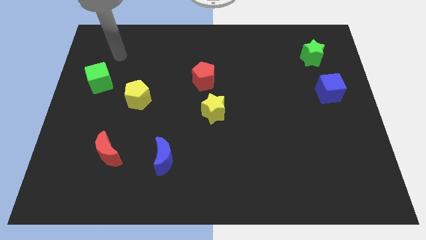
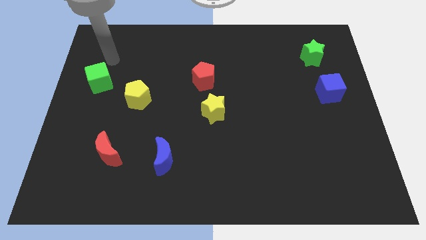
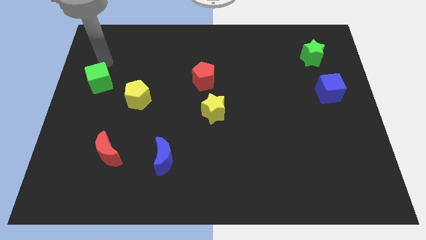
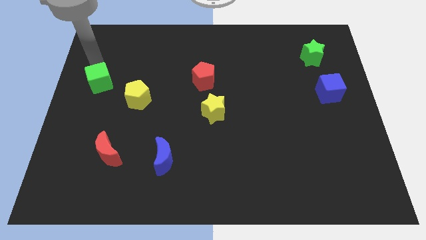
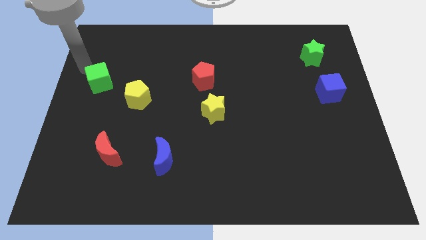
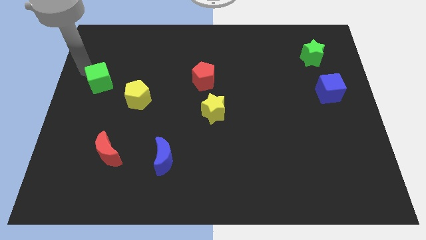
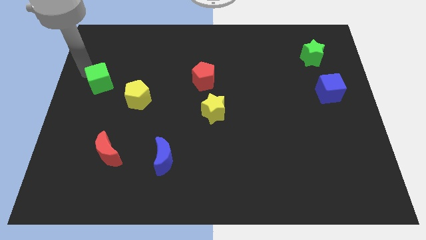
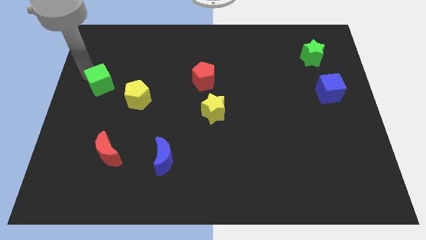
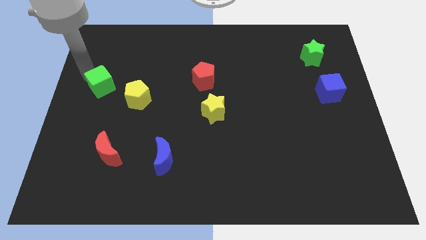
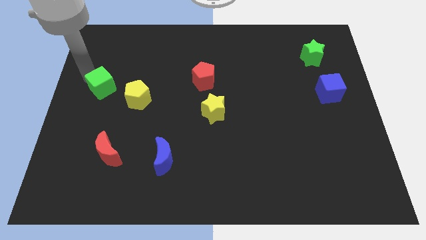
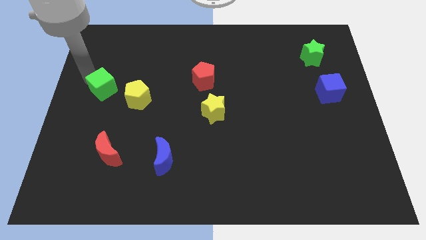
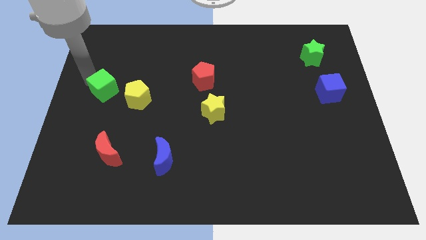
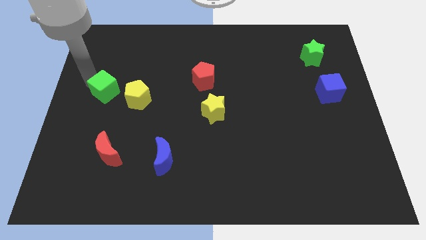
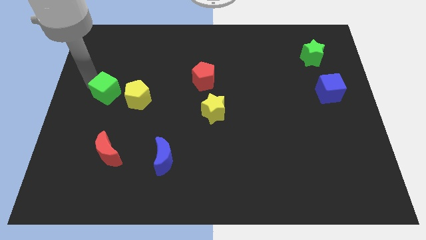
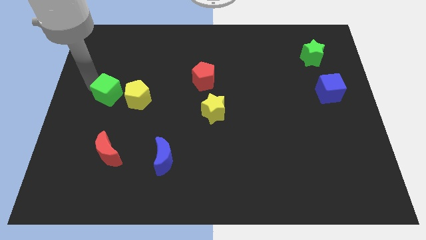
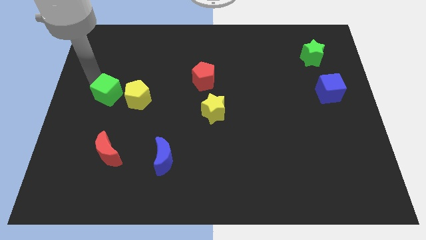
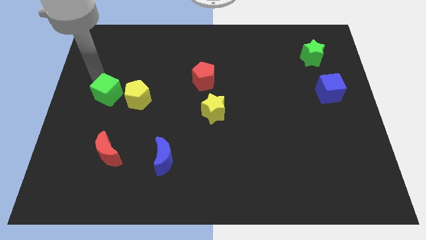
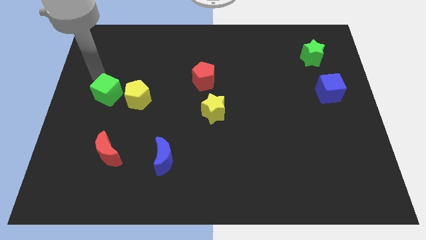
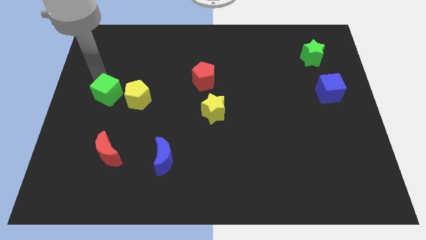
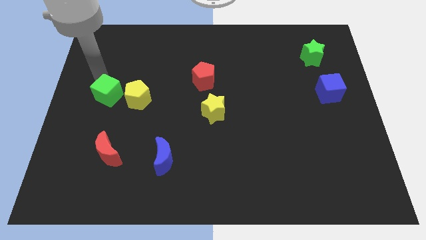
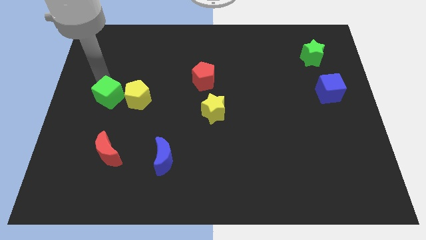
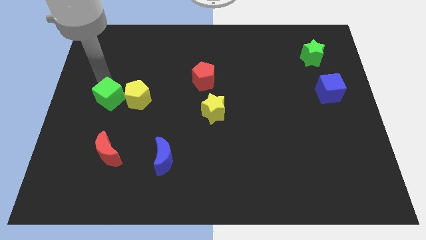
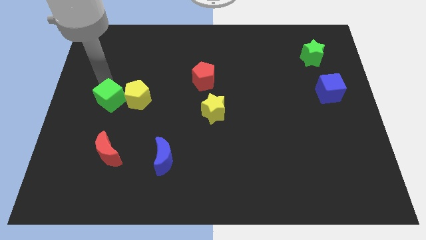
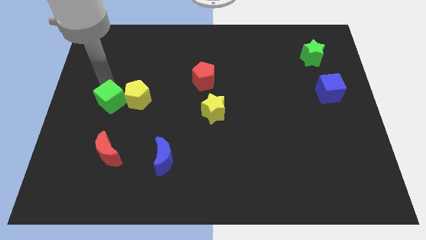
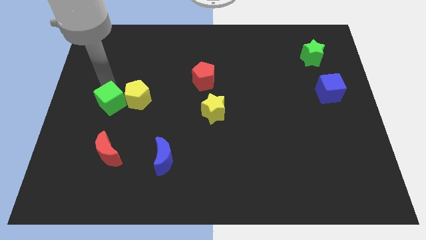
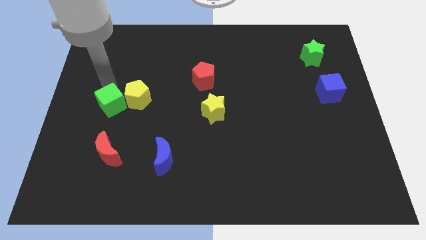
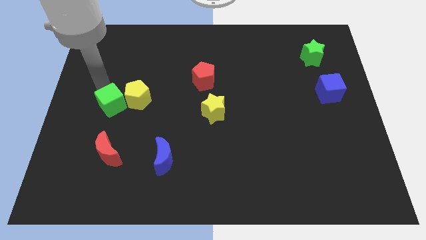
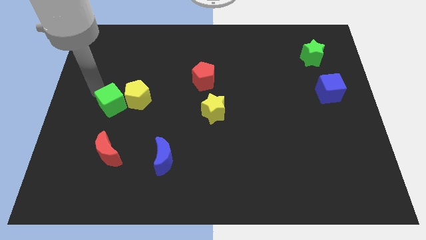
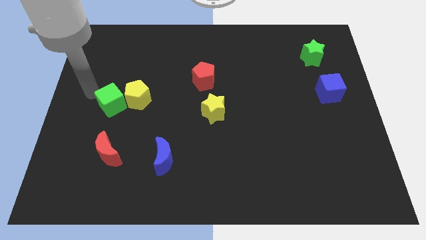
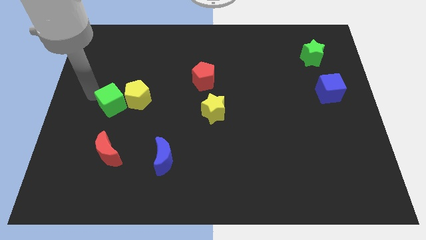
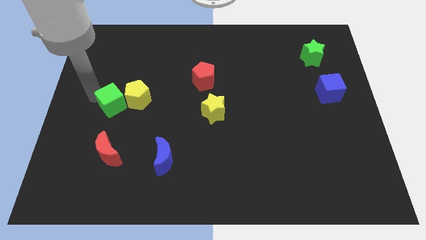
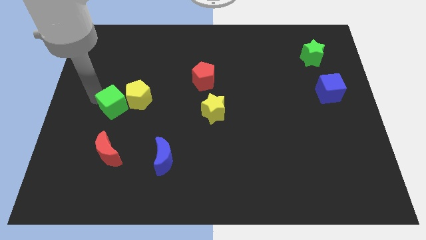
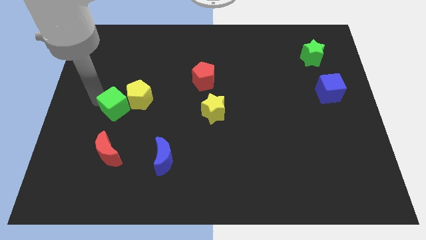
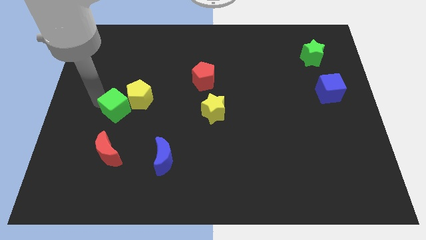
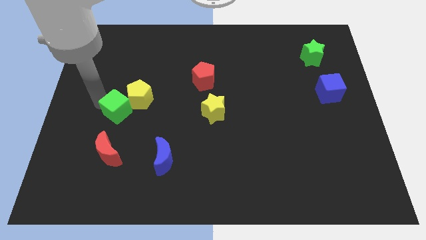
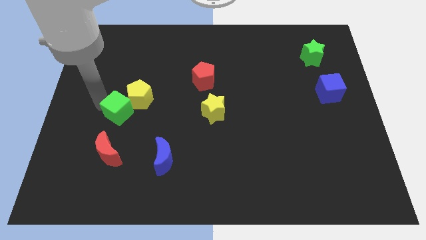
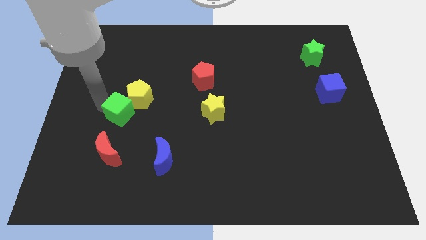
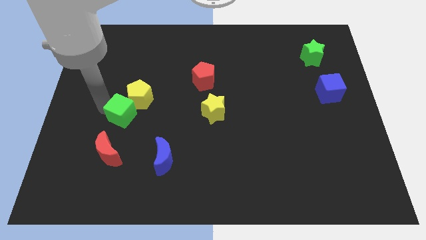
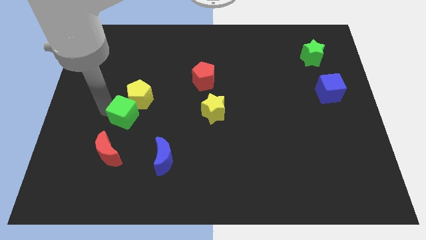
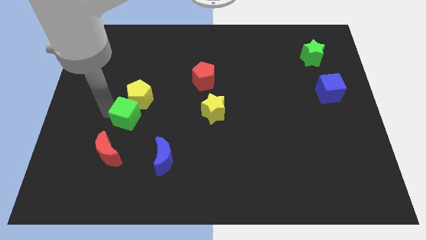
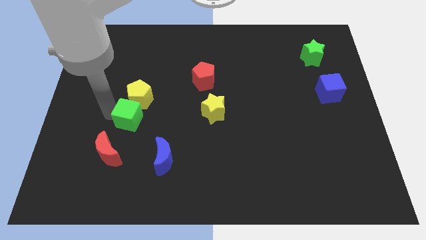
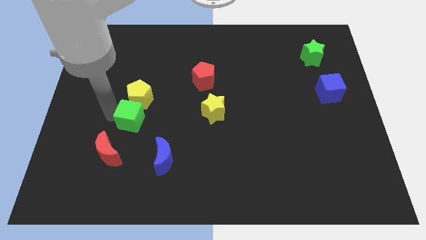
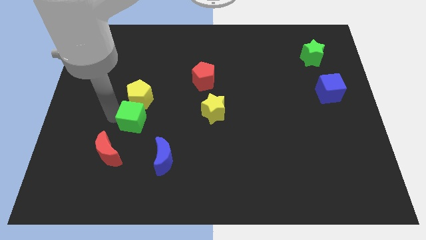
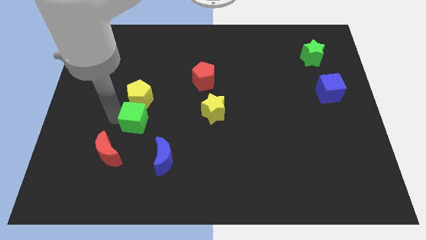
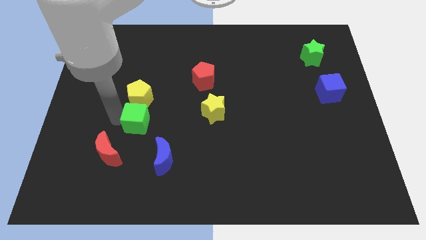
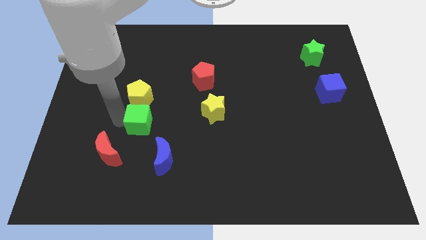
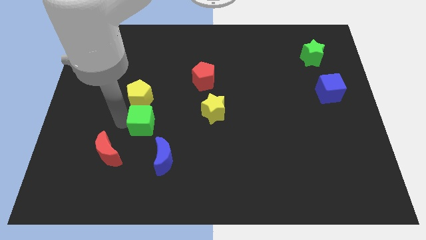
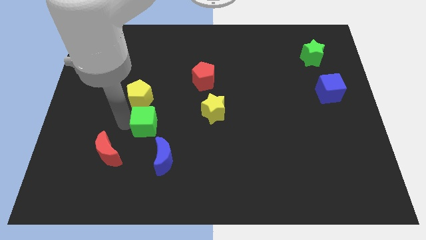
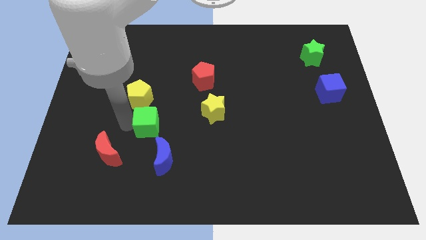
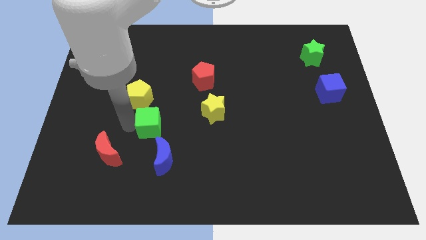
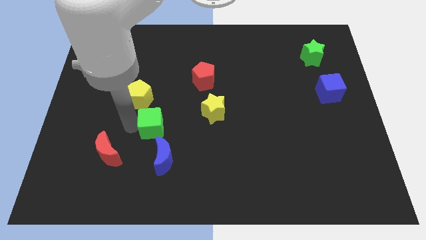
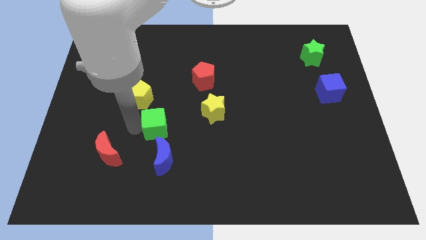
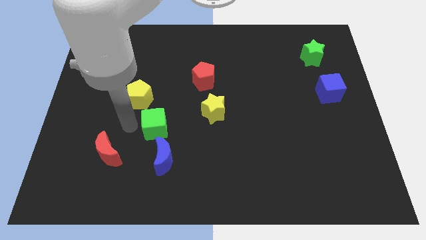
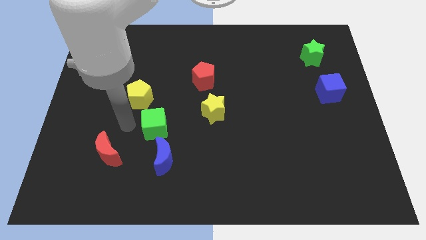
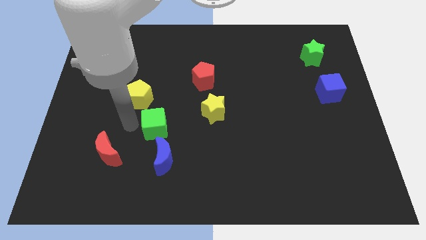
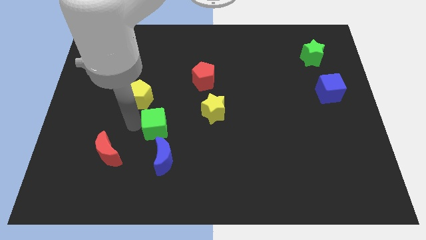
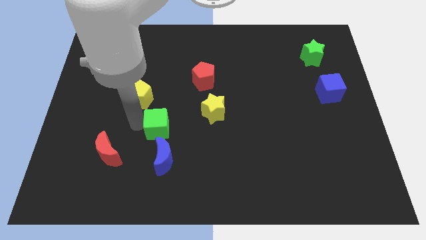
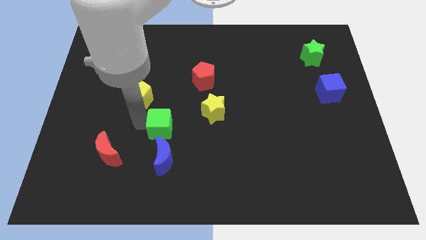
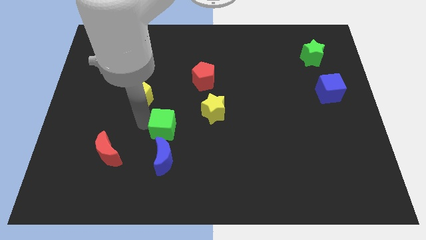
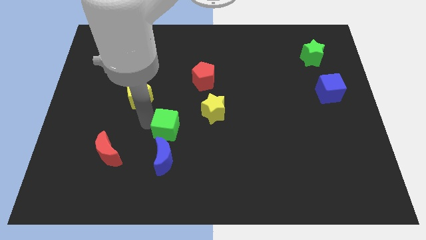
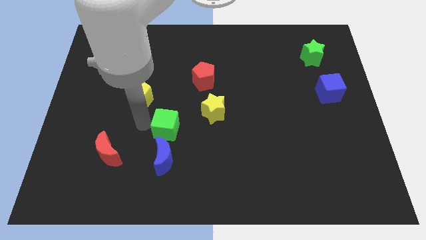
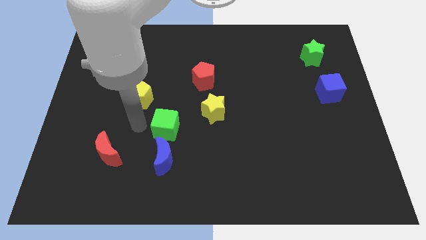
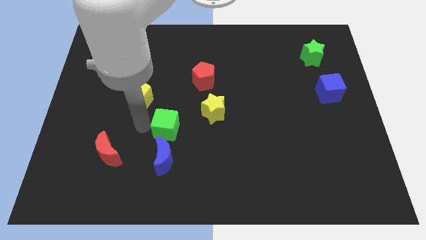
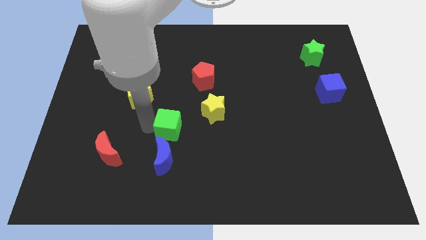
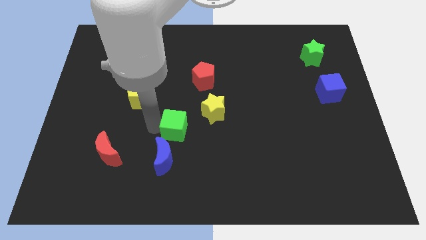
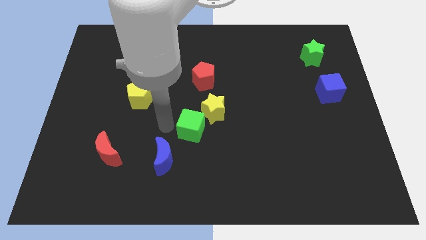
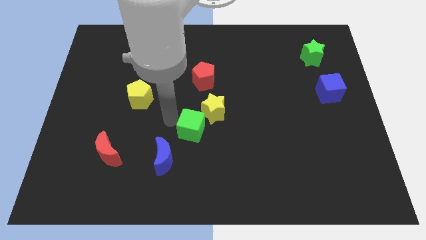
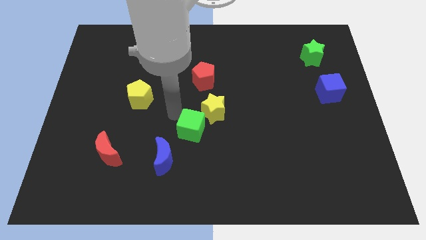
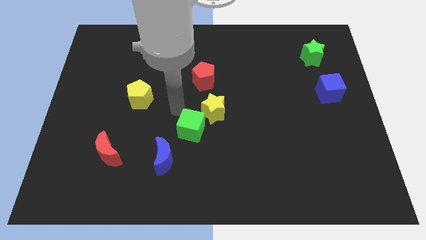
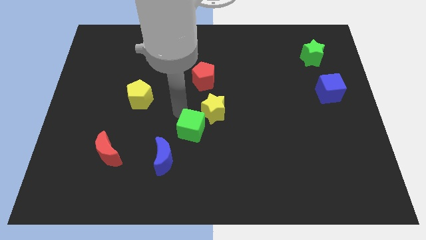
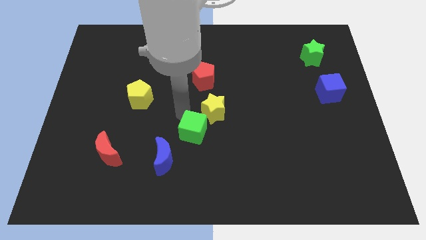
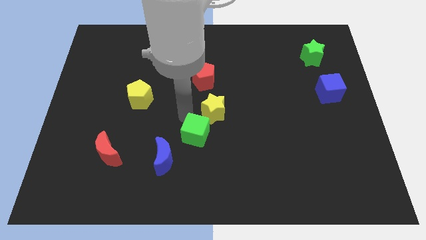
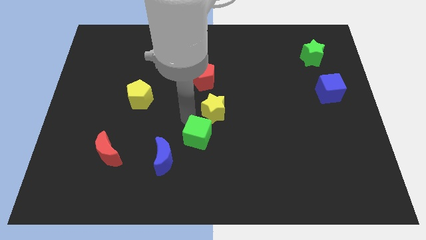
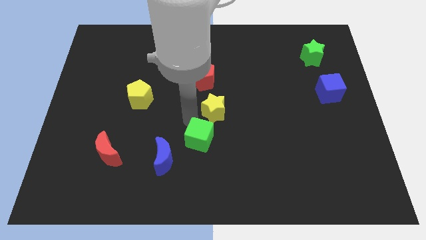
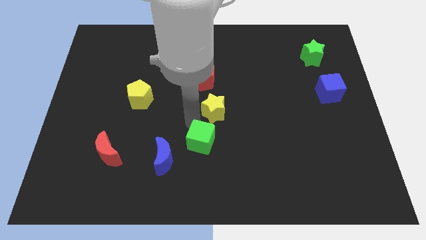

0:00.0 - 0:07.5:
push the green cube just right of the blue moon

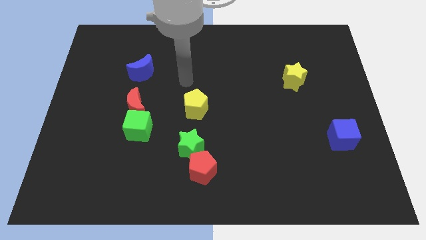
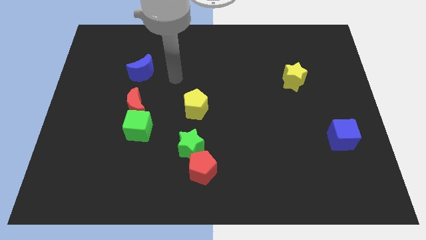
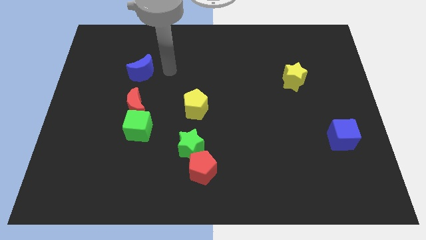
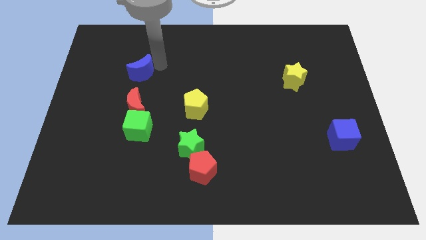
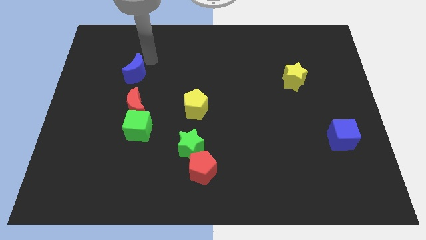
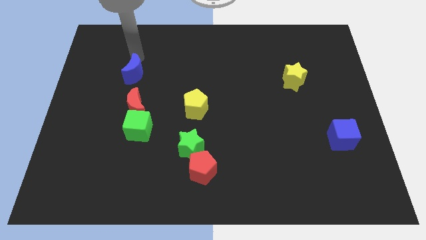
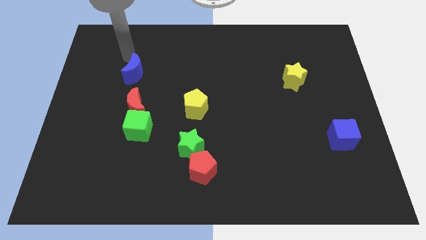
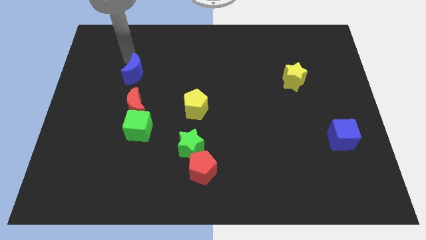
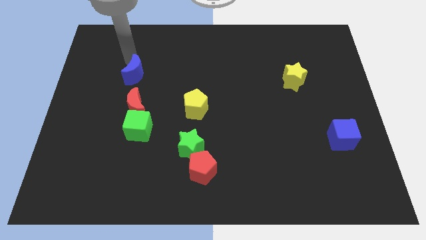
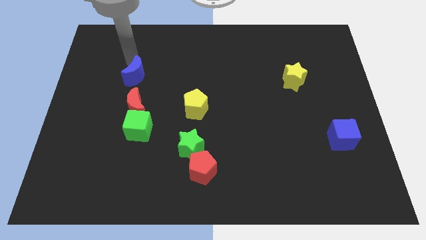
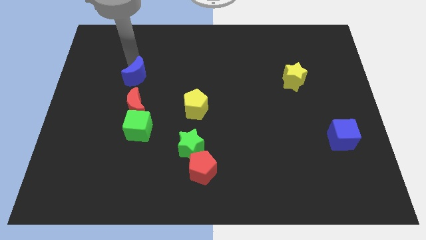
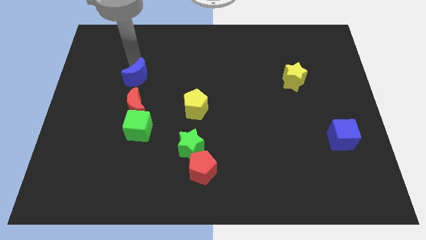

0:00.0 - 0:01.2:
push the blue moon to the top side of the green cube
